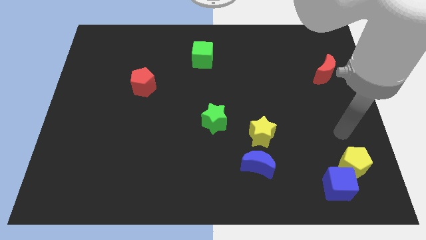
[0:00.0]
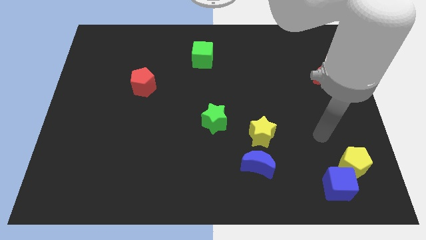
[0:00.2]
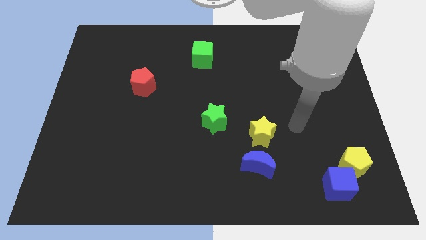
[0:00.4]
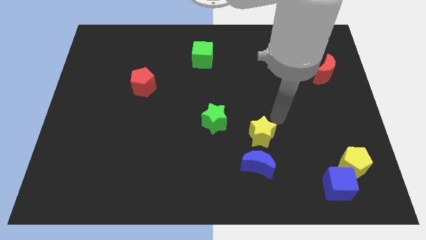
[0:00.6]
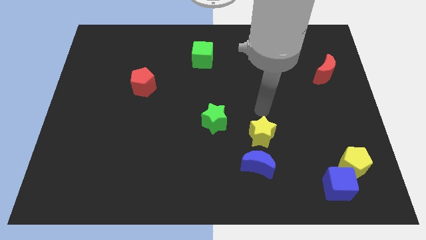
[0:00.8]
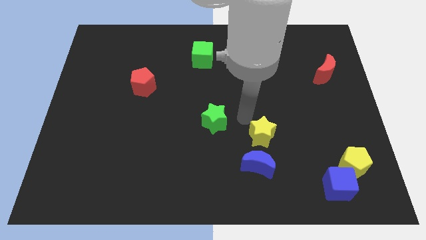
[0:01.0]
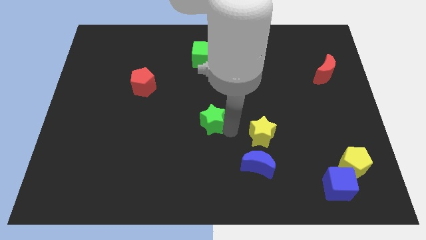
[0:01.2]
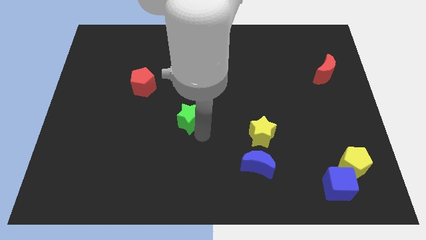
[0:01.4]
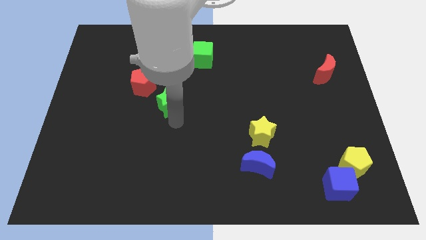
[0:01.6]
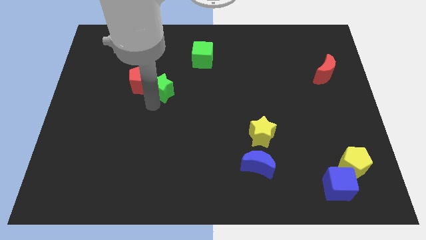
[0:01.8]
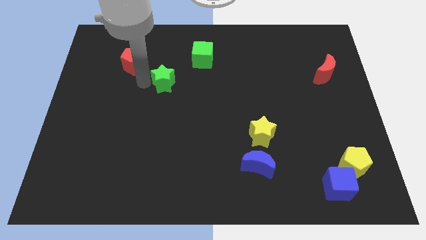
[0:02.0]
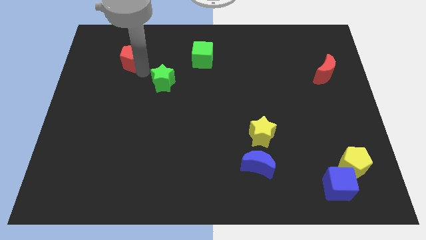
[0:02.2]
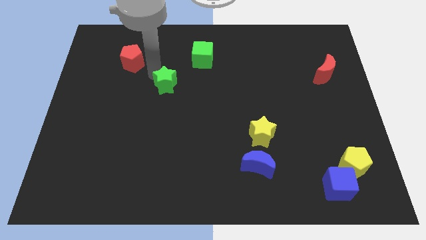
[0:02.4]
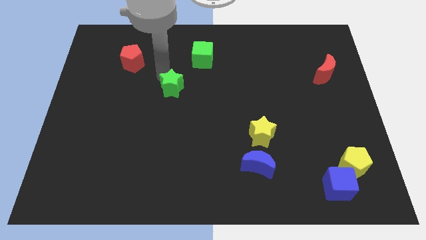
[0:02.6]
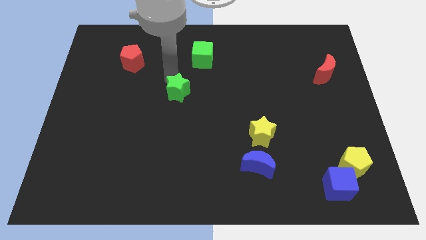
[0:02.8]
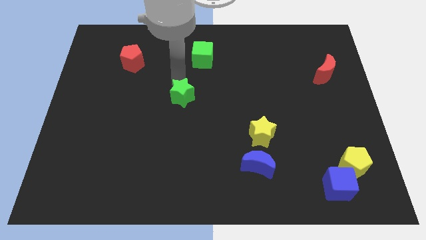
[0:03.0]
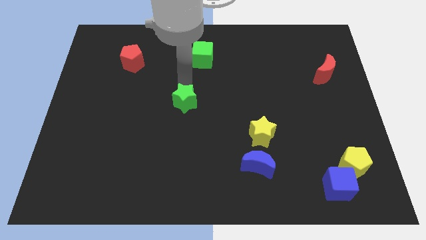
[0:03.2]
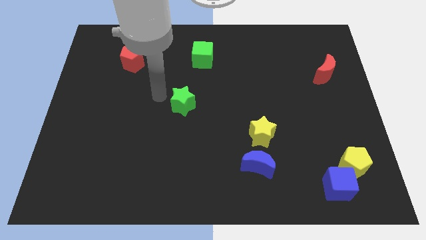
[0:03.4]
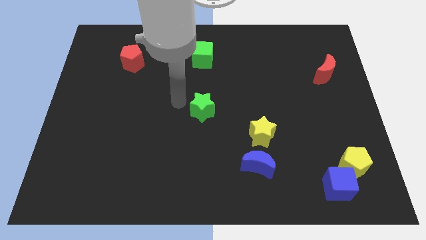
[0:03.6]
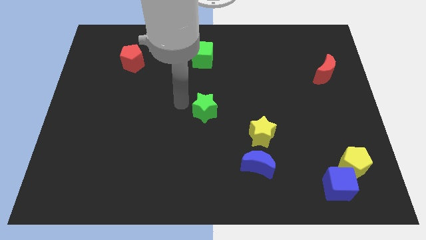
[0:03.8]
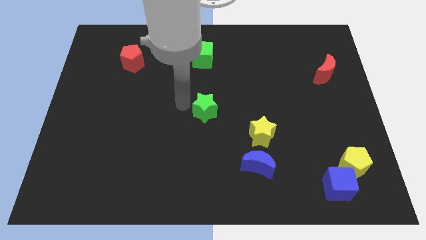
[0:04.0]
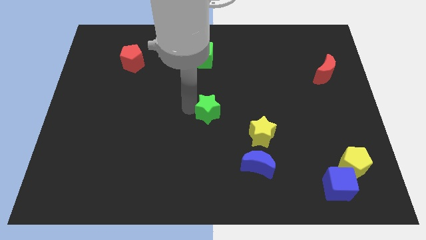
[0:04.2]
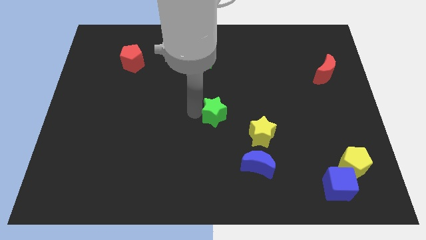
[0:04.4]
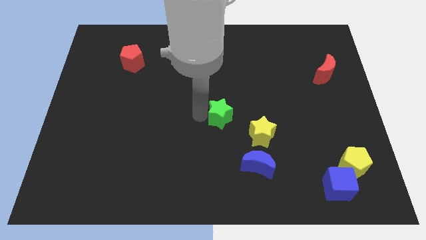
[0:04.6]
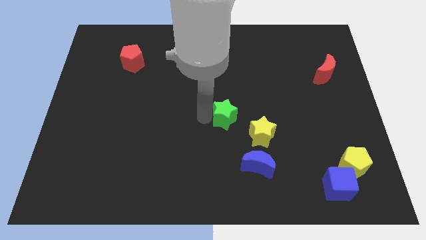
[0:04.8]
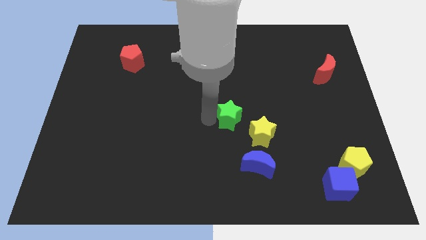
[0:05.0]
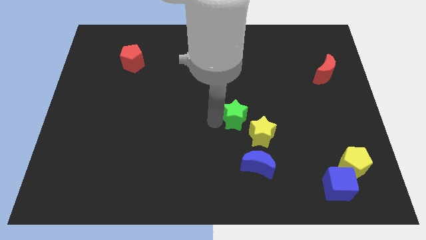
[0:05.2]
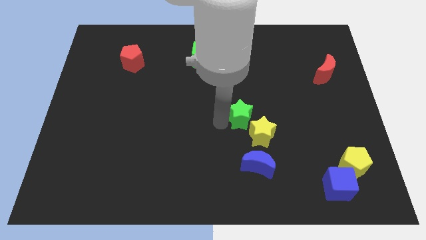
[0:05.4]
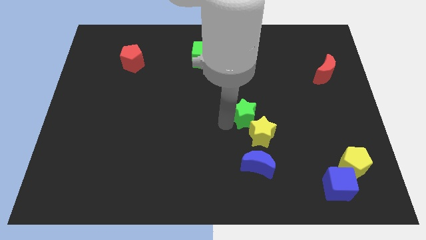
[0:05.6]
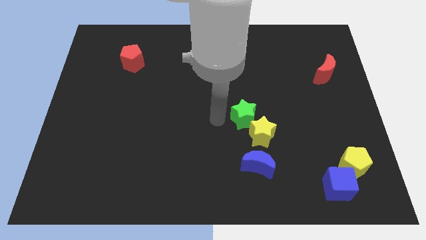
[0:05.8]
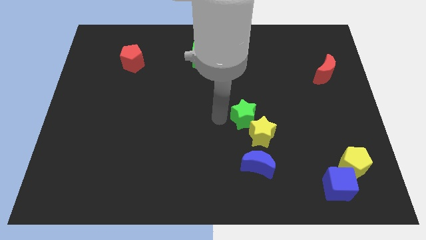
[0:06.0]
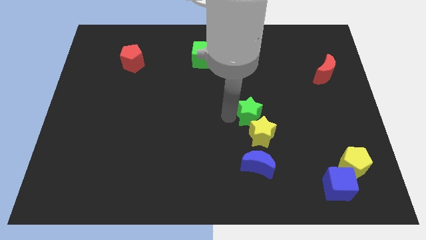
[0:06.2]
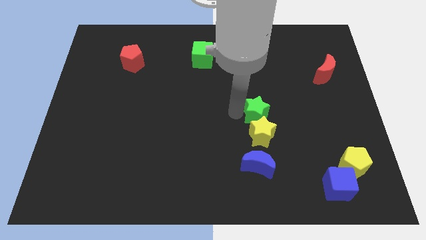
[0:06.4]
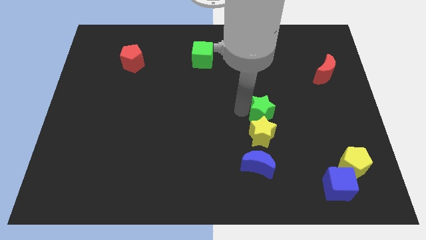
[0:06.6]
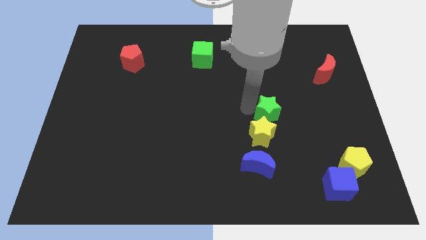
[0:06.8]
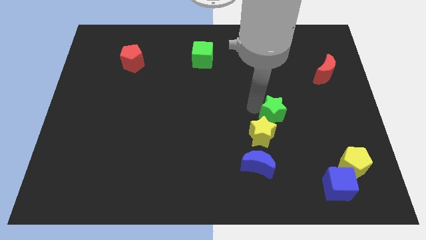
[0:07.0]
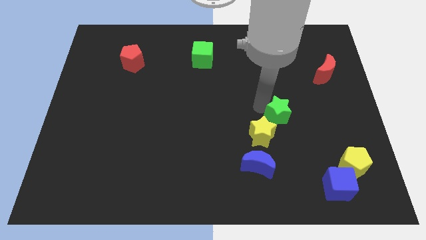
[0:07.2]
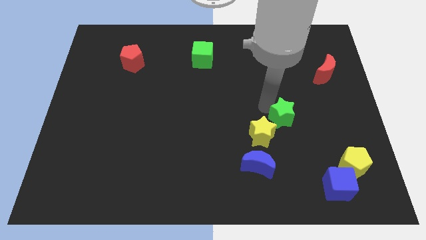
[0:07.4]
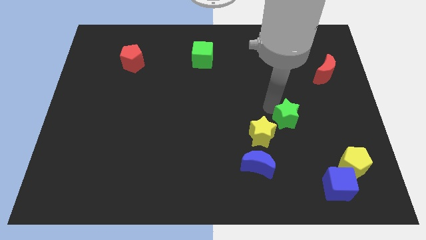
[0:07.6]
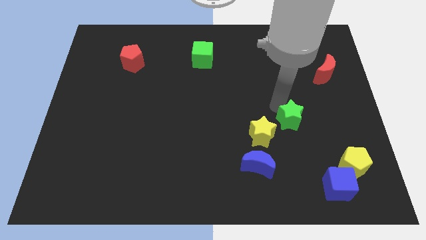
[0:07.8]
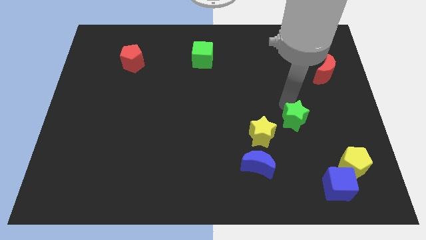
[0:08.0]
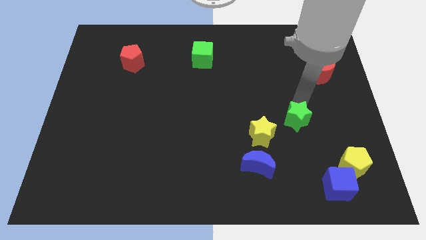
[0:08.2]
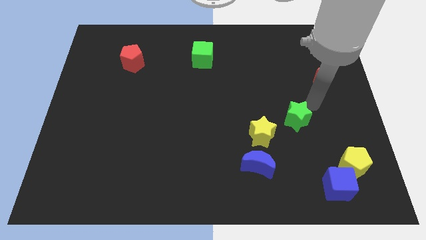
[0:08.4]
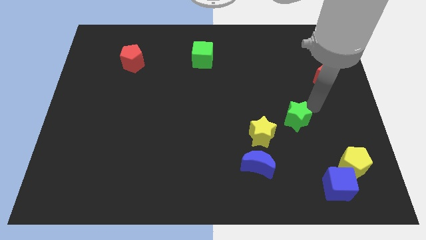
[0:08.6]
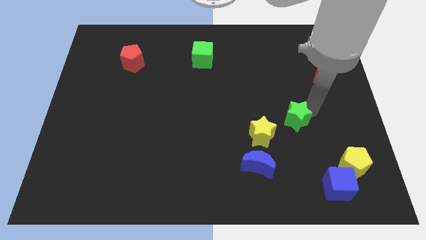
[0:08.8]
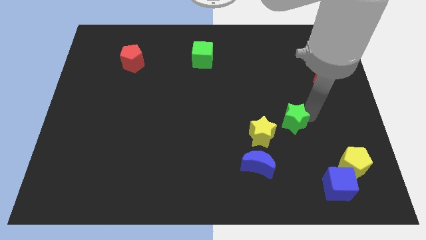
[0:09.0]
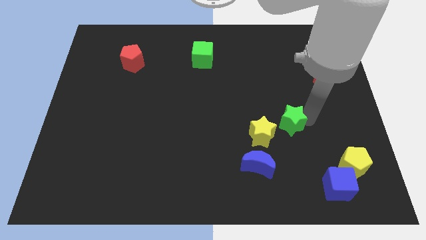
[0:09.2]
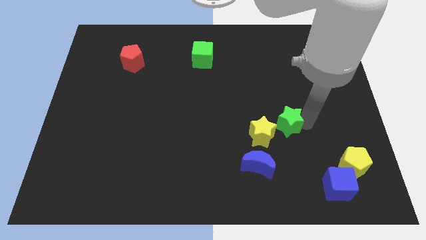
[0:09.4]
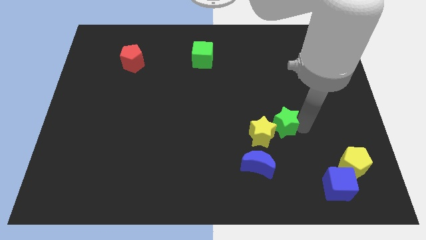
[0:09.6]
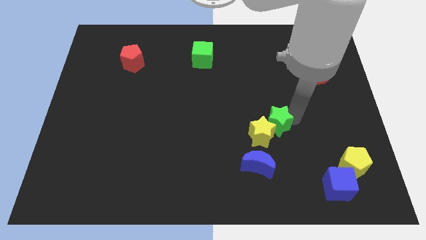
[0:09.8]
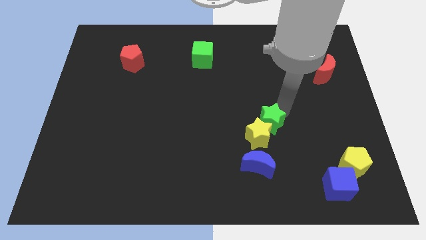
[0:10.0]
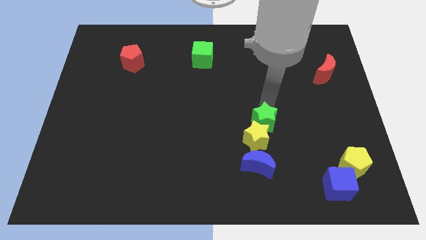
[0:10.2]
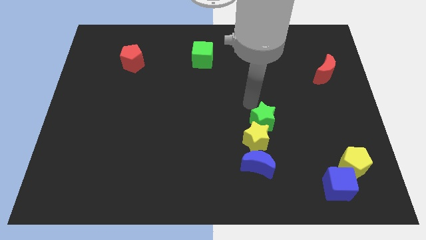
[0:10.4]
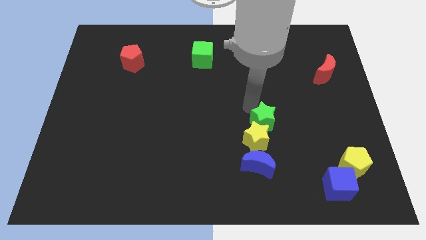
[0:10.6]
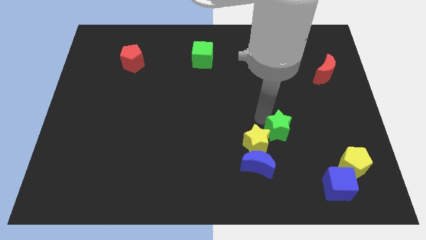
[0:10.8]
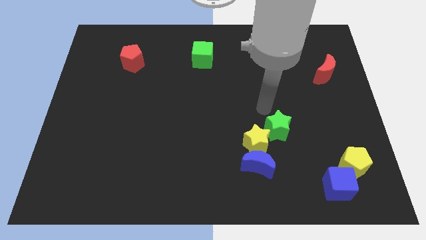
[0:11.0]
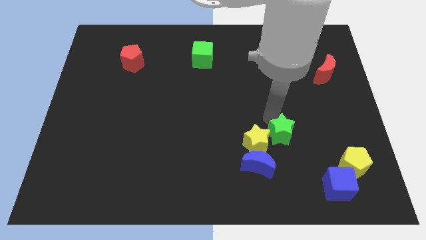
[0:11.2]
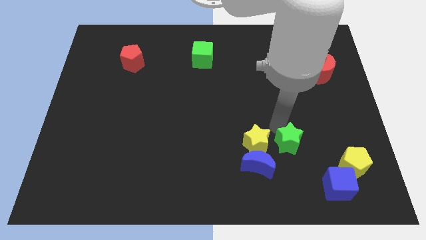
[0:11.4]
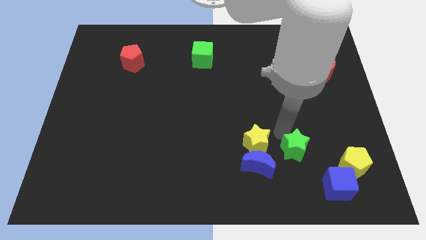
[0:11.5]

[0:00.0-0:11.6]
move the green star to the right side of the blue moon

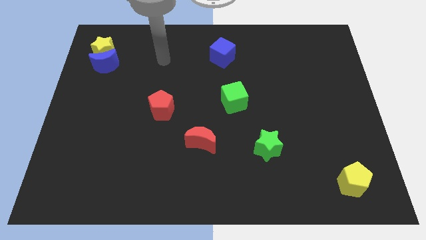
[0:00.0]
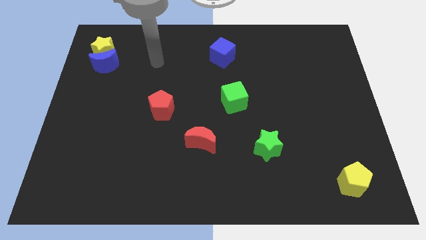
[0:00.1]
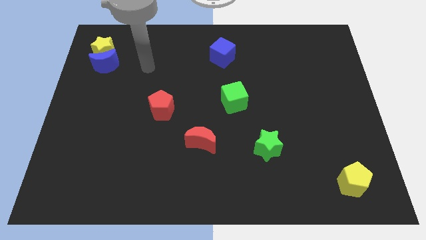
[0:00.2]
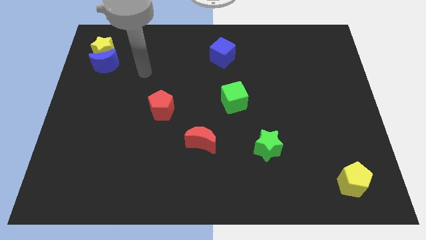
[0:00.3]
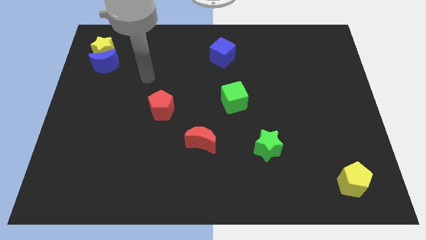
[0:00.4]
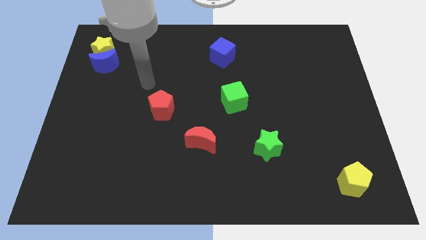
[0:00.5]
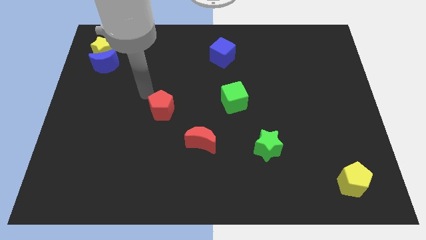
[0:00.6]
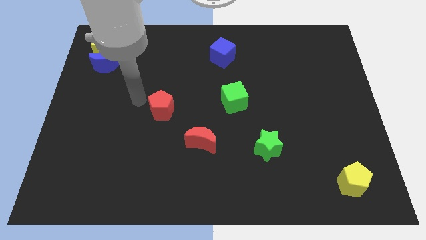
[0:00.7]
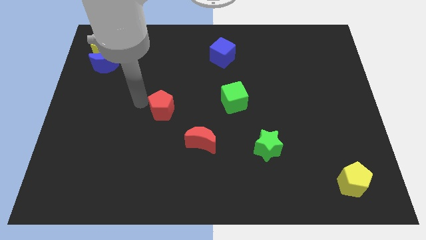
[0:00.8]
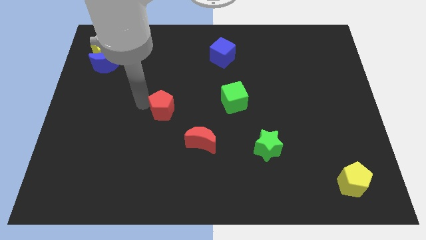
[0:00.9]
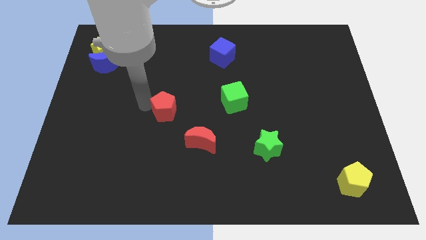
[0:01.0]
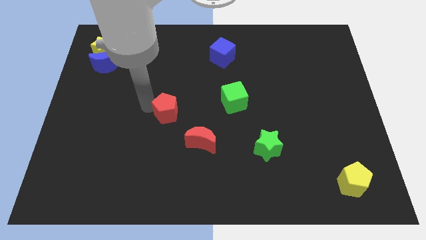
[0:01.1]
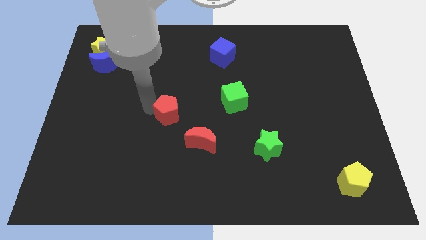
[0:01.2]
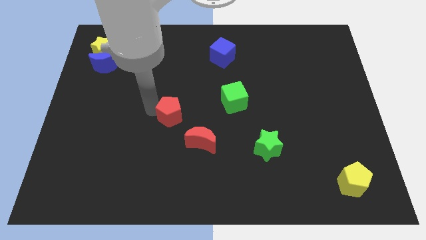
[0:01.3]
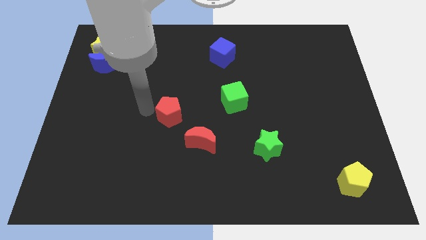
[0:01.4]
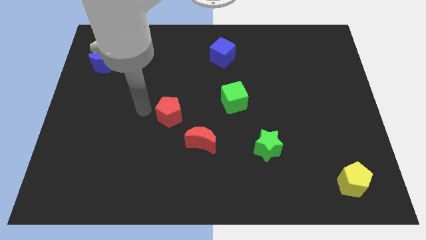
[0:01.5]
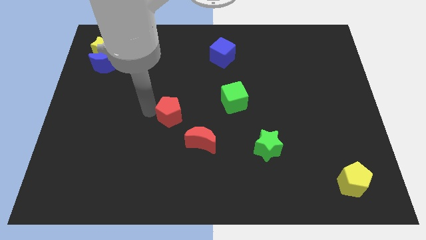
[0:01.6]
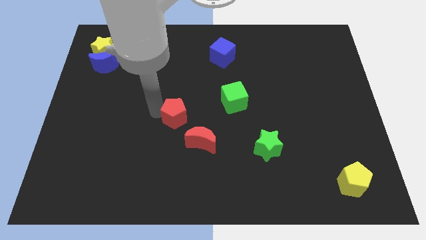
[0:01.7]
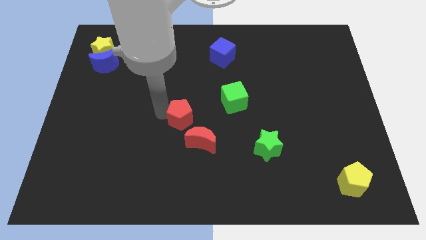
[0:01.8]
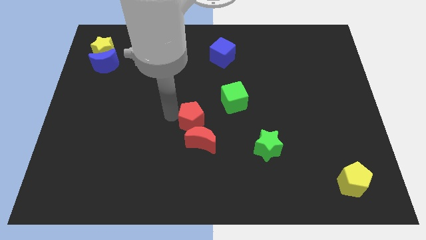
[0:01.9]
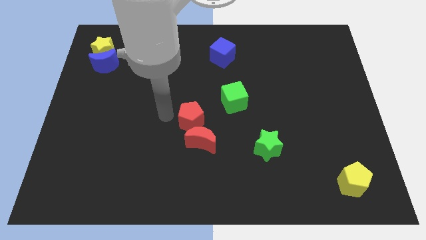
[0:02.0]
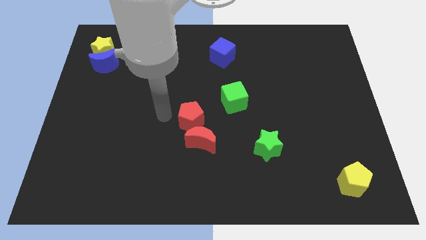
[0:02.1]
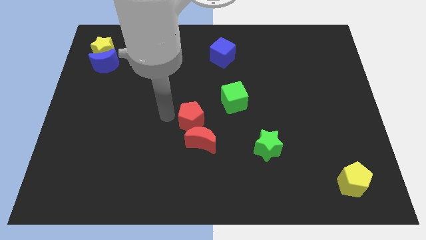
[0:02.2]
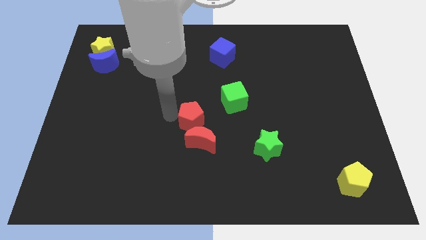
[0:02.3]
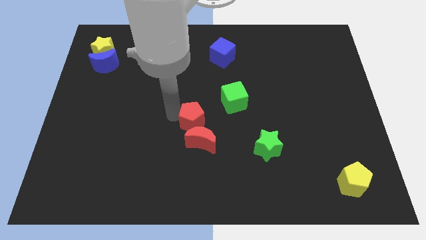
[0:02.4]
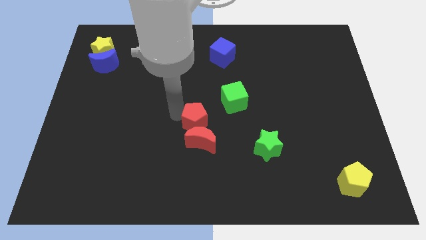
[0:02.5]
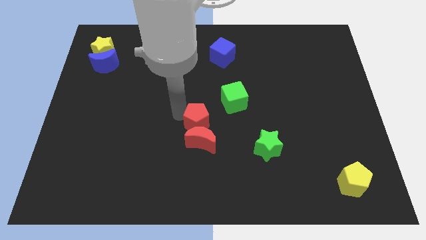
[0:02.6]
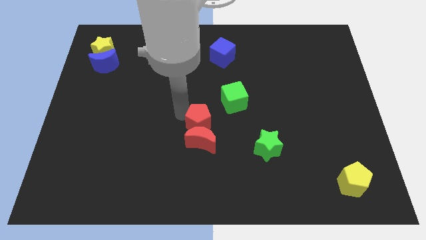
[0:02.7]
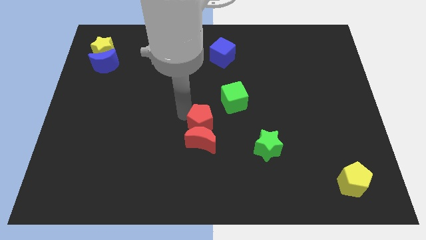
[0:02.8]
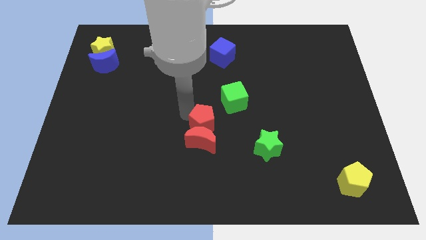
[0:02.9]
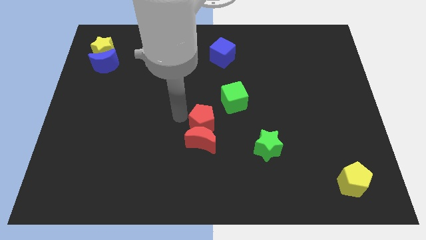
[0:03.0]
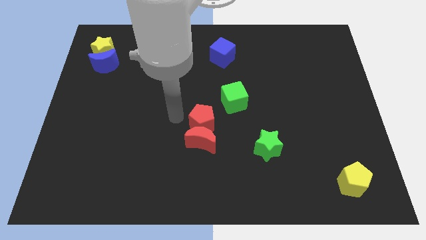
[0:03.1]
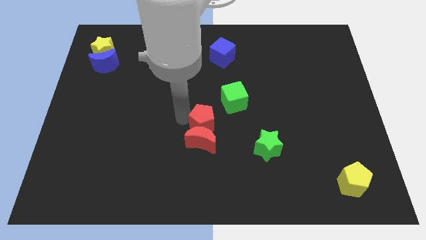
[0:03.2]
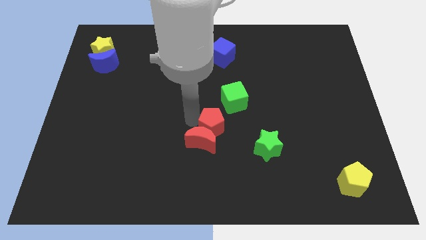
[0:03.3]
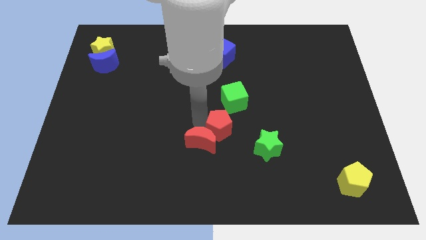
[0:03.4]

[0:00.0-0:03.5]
put the red pentagon to the top left side of the green star
